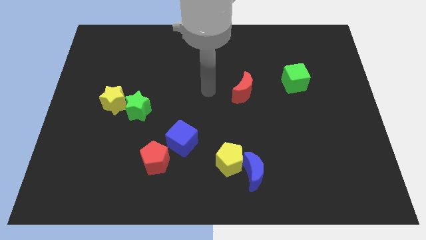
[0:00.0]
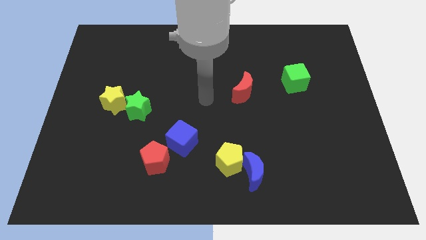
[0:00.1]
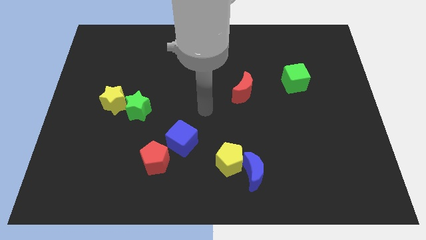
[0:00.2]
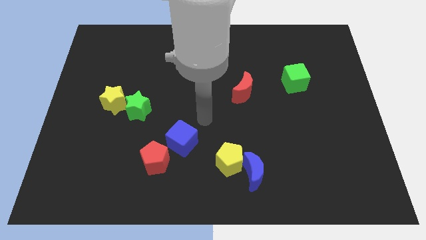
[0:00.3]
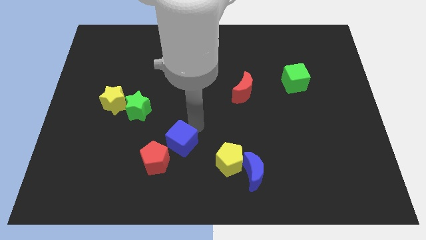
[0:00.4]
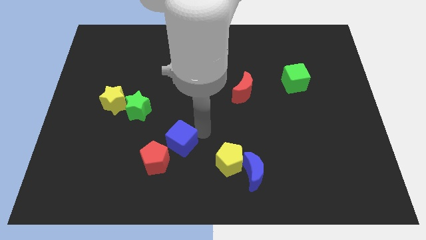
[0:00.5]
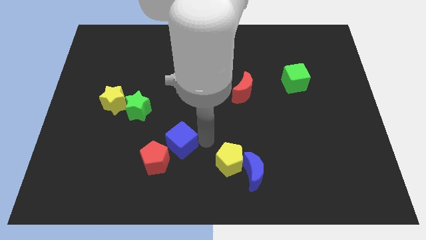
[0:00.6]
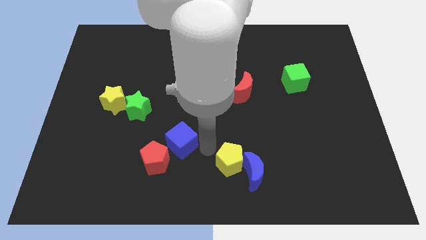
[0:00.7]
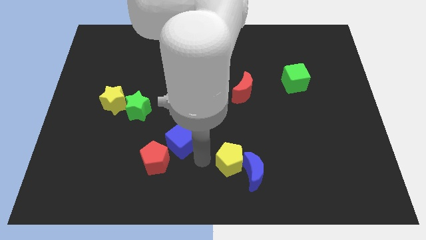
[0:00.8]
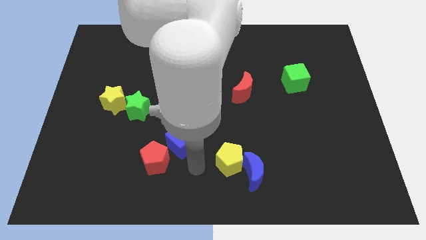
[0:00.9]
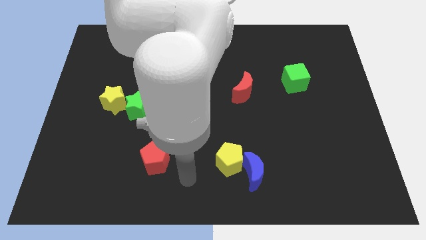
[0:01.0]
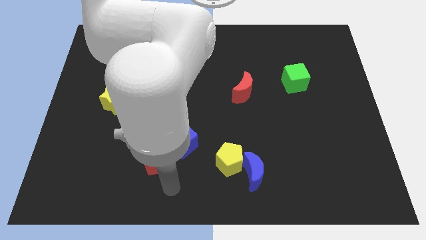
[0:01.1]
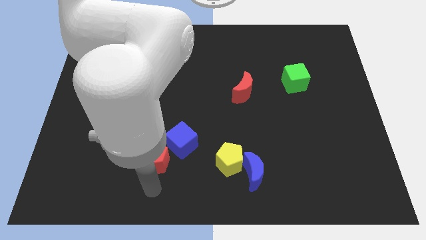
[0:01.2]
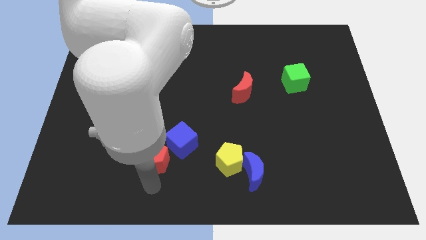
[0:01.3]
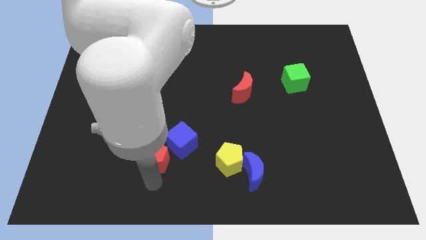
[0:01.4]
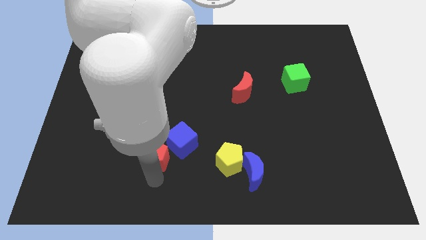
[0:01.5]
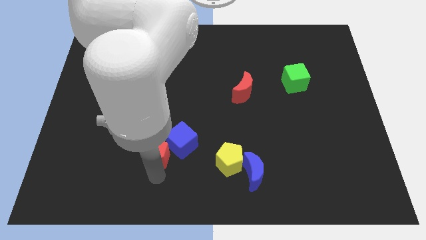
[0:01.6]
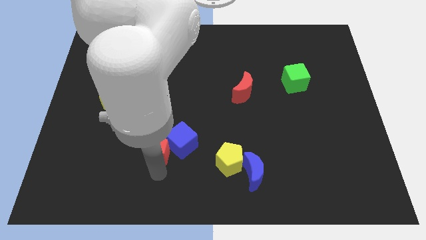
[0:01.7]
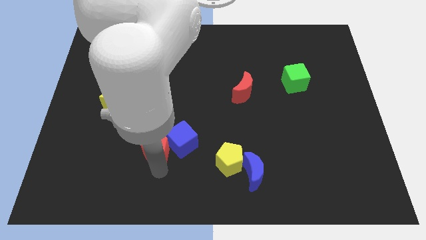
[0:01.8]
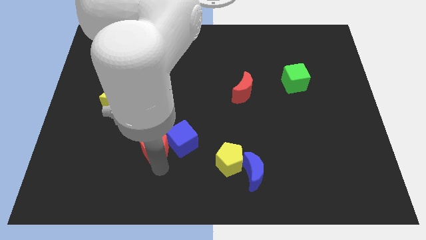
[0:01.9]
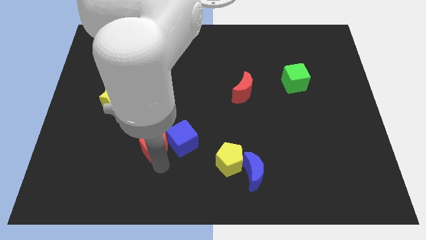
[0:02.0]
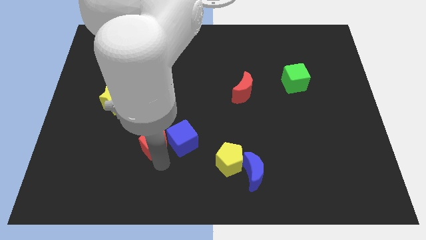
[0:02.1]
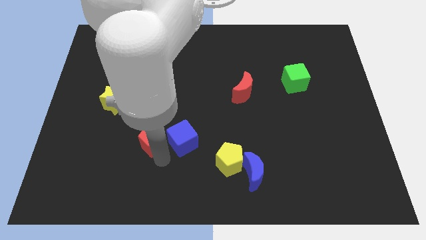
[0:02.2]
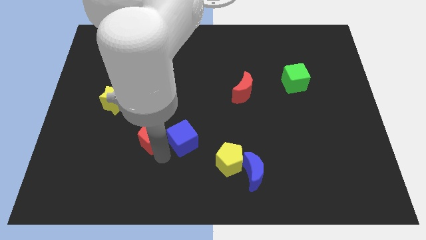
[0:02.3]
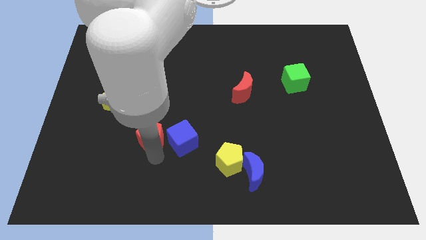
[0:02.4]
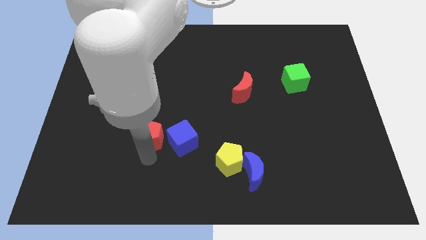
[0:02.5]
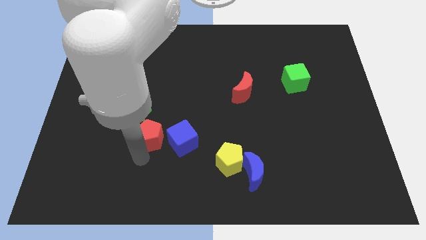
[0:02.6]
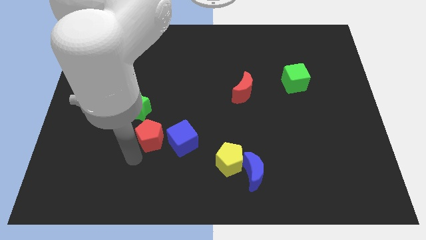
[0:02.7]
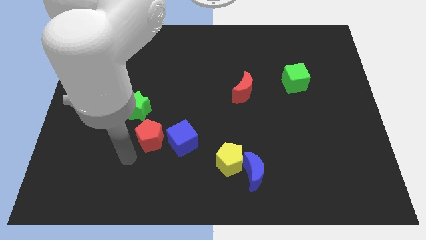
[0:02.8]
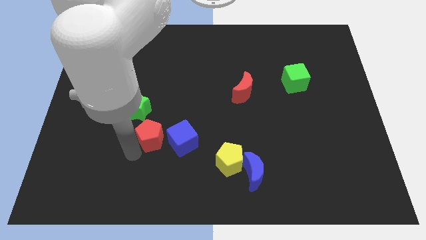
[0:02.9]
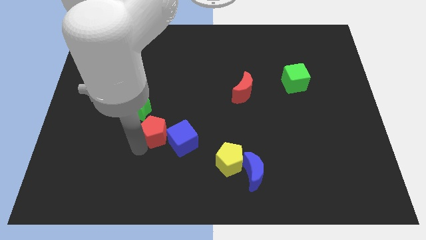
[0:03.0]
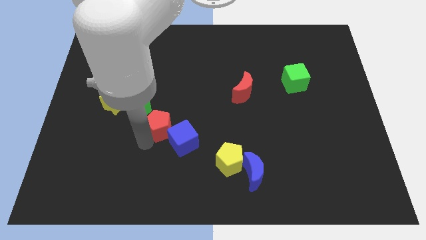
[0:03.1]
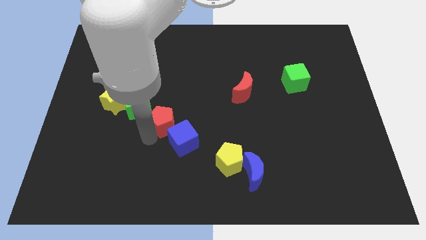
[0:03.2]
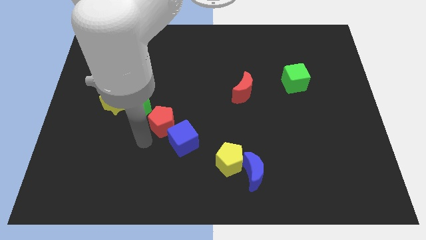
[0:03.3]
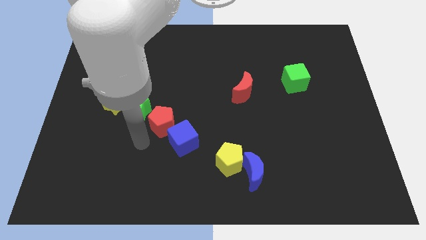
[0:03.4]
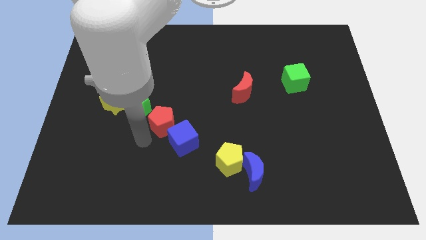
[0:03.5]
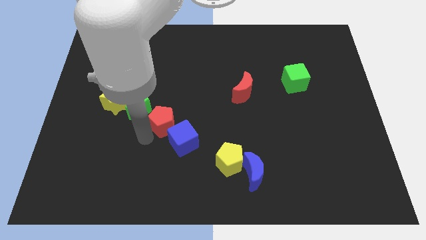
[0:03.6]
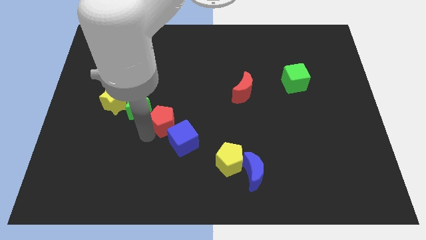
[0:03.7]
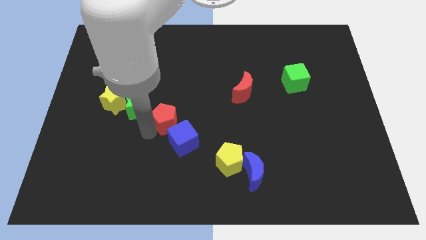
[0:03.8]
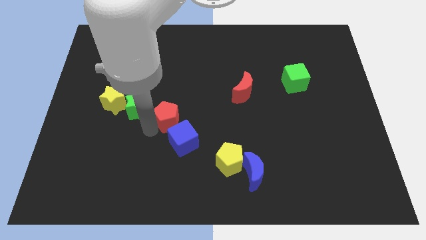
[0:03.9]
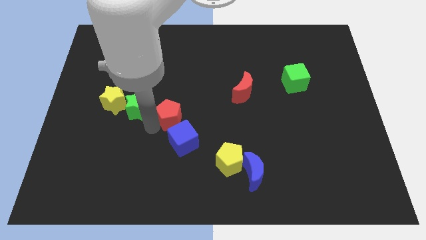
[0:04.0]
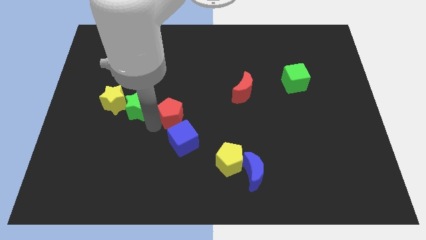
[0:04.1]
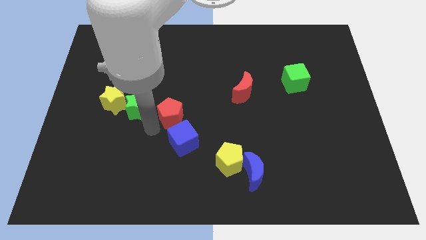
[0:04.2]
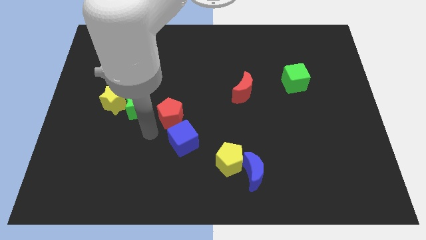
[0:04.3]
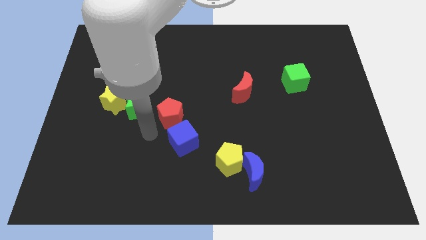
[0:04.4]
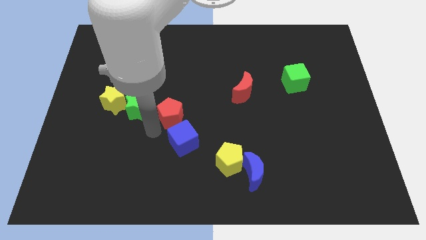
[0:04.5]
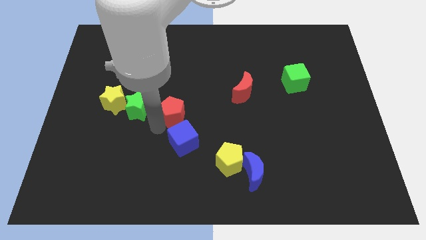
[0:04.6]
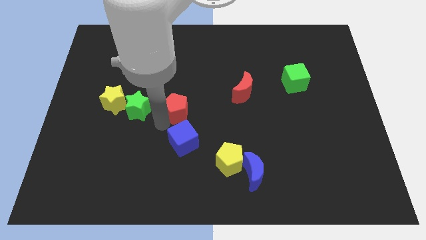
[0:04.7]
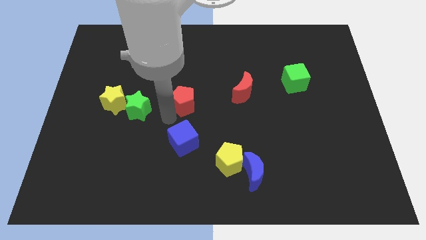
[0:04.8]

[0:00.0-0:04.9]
slide the red pentagon just left of the red moon

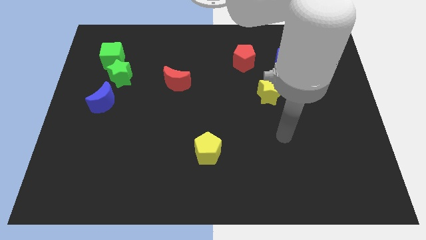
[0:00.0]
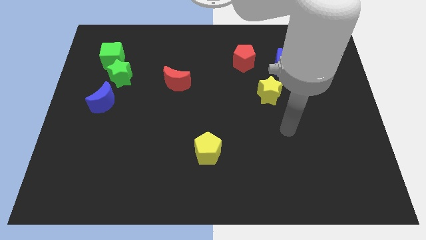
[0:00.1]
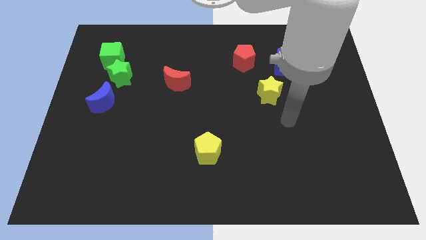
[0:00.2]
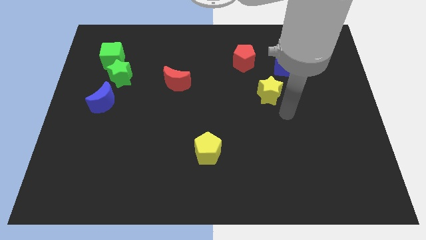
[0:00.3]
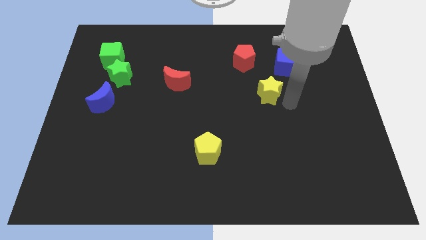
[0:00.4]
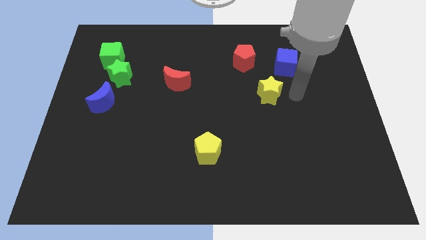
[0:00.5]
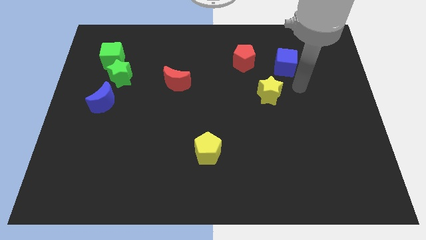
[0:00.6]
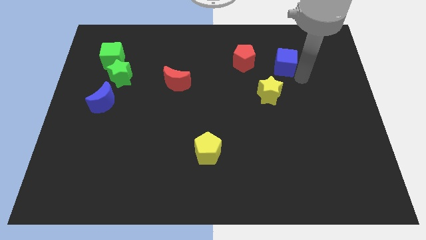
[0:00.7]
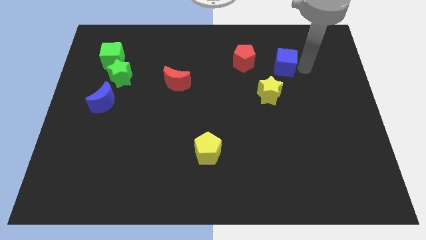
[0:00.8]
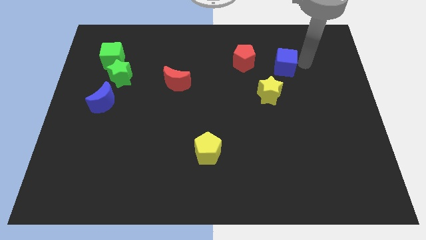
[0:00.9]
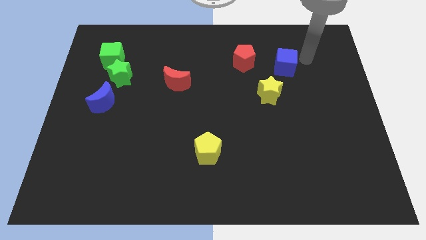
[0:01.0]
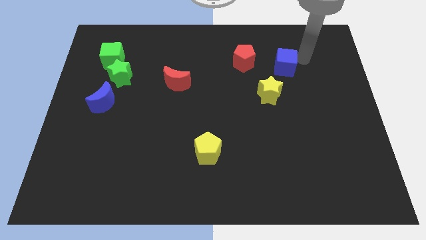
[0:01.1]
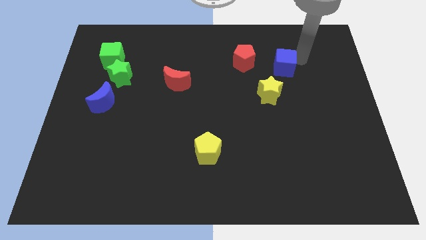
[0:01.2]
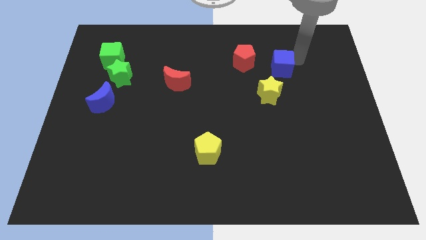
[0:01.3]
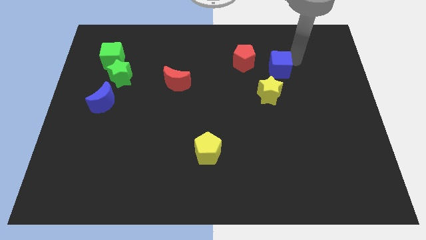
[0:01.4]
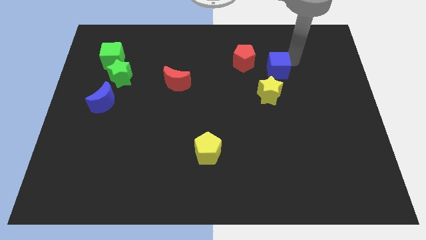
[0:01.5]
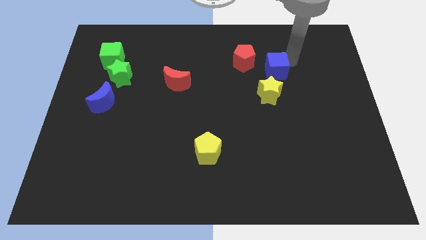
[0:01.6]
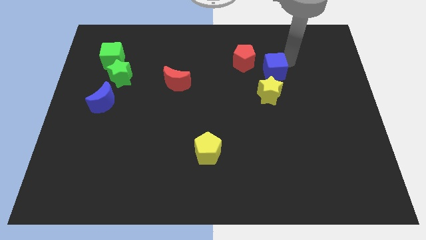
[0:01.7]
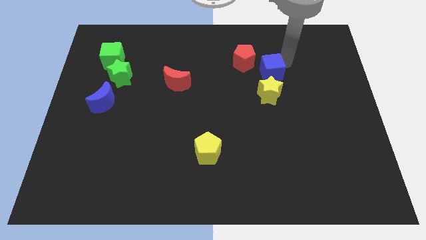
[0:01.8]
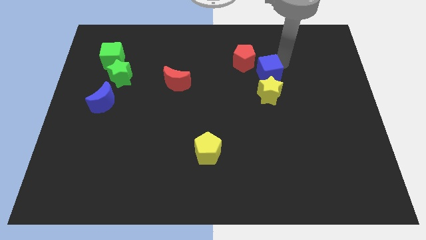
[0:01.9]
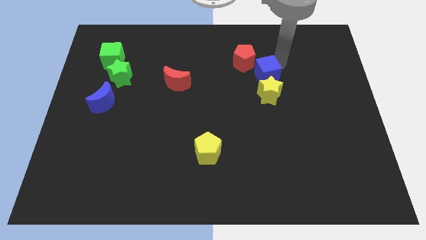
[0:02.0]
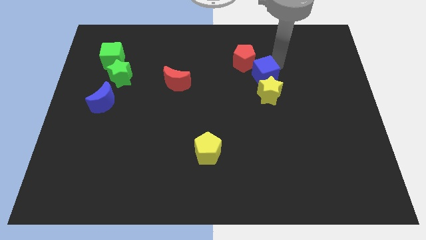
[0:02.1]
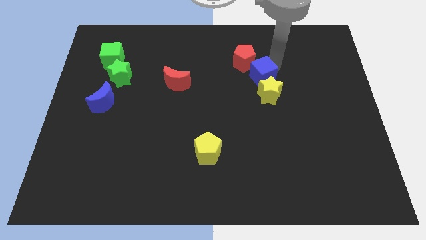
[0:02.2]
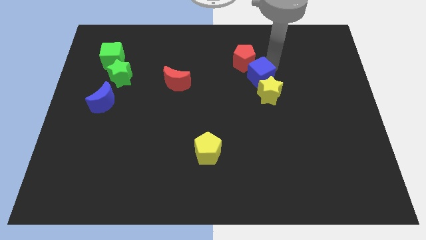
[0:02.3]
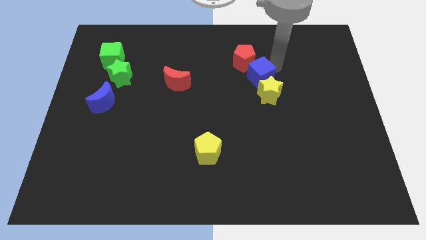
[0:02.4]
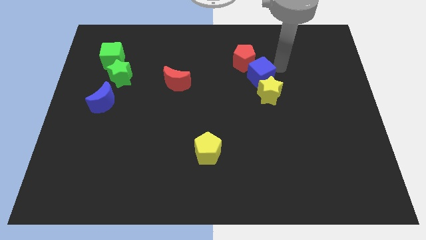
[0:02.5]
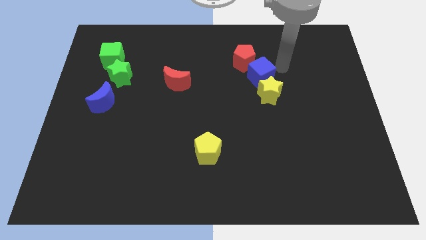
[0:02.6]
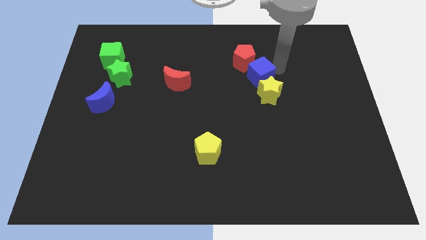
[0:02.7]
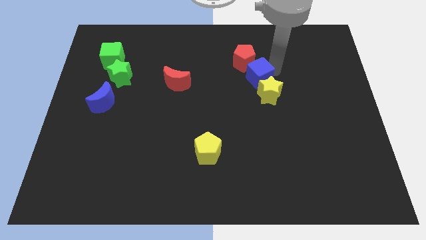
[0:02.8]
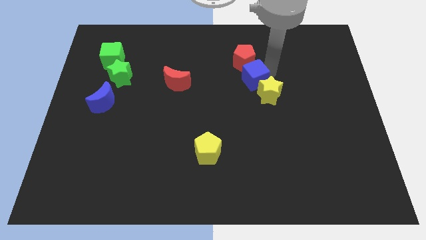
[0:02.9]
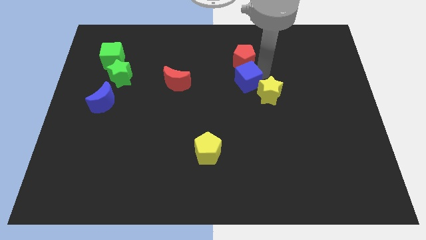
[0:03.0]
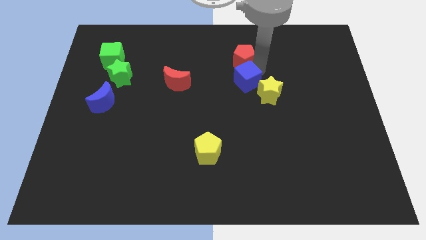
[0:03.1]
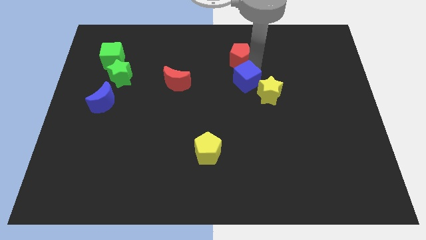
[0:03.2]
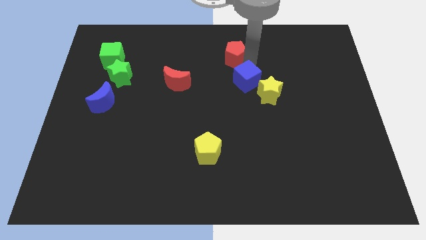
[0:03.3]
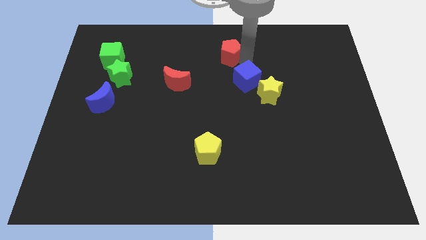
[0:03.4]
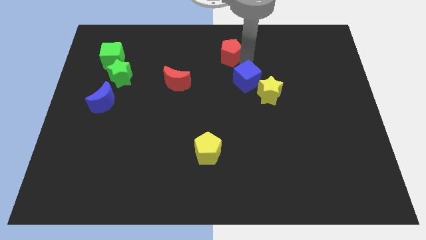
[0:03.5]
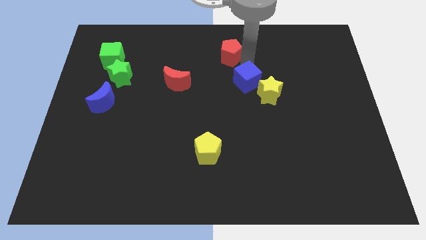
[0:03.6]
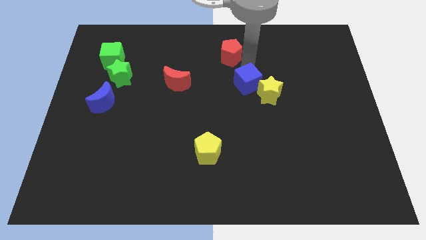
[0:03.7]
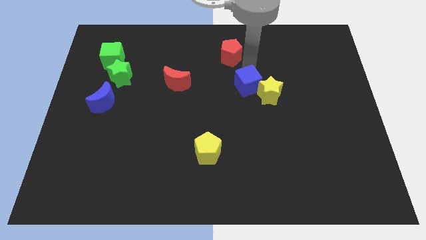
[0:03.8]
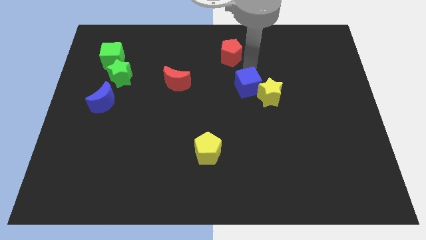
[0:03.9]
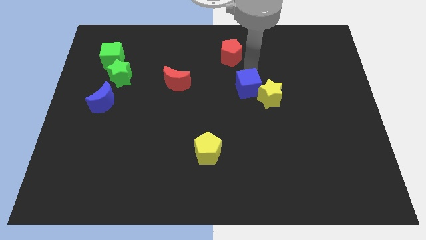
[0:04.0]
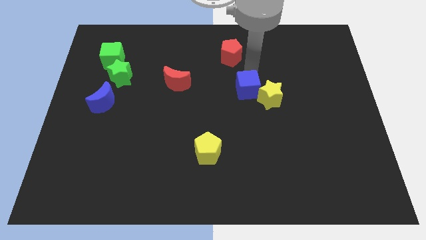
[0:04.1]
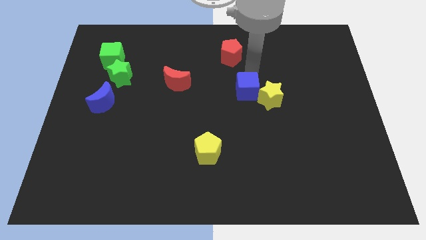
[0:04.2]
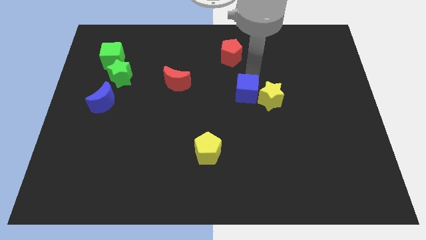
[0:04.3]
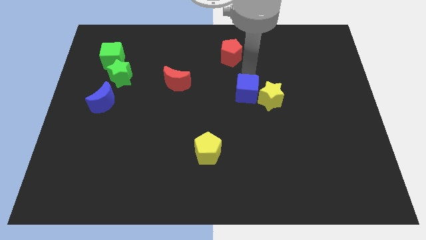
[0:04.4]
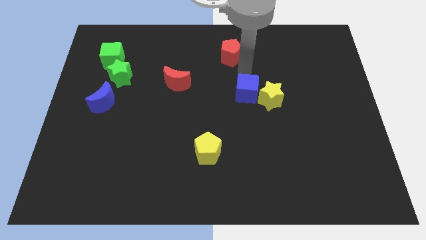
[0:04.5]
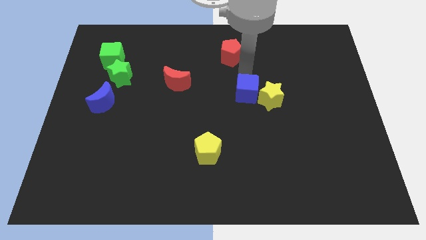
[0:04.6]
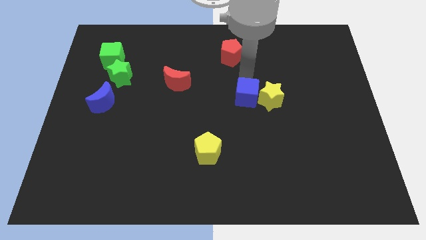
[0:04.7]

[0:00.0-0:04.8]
put the blue cube to the bottom left side of the yellow star
